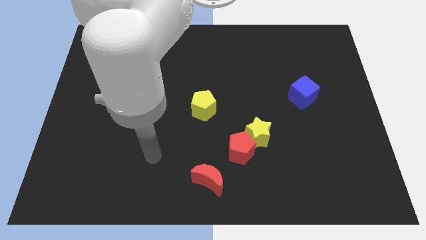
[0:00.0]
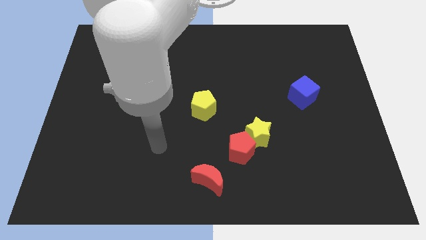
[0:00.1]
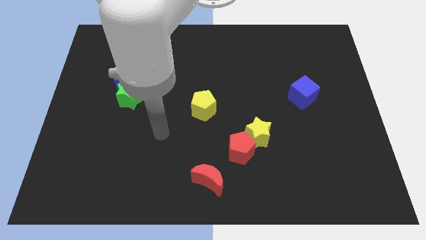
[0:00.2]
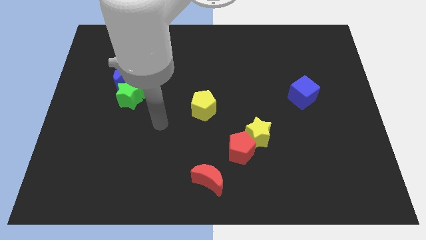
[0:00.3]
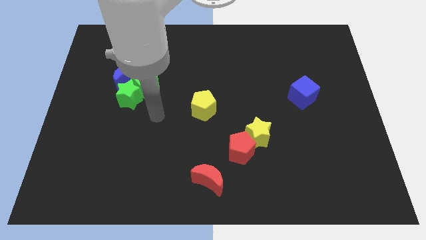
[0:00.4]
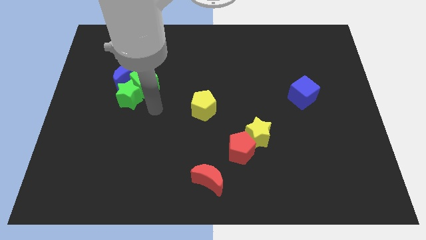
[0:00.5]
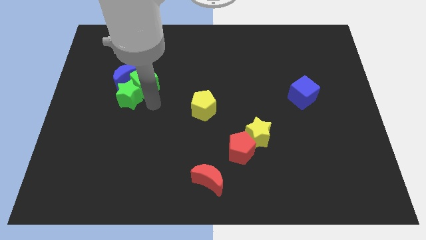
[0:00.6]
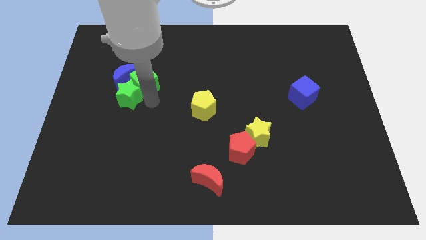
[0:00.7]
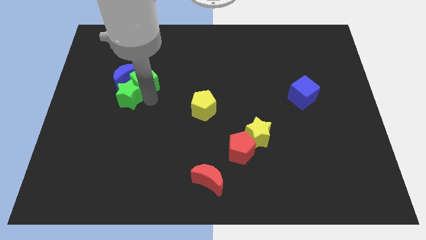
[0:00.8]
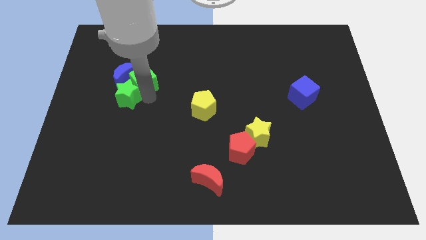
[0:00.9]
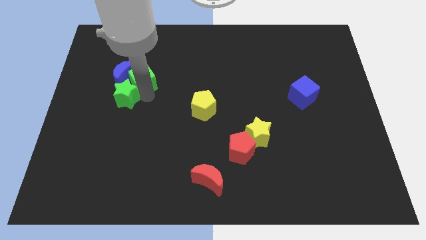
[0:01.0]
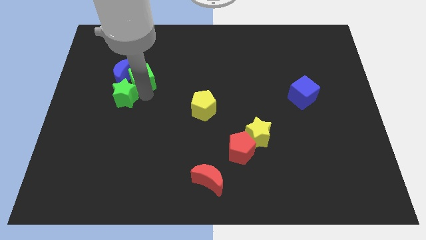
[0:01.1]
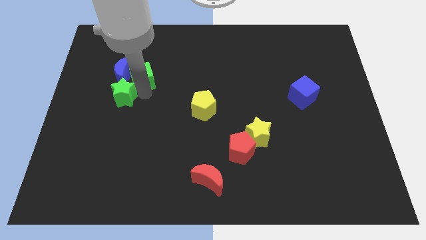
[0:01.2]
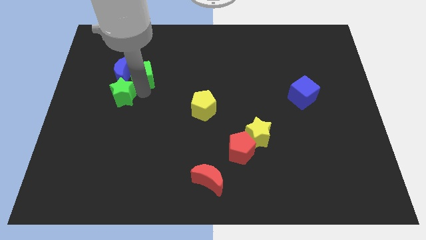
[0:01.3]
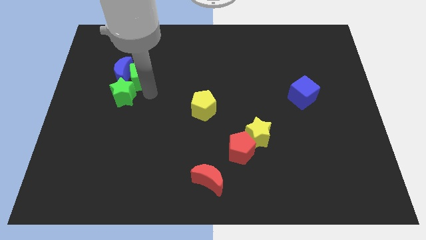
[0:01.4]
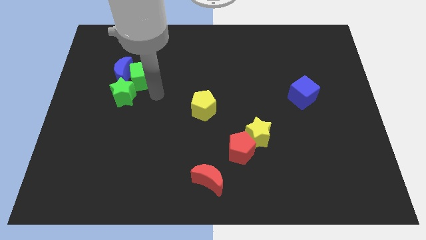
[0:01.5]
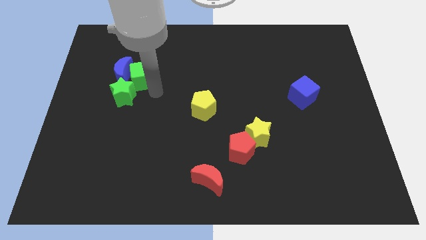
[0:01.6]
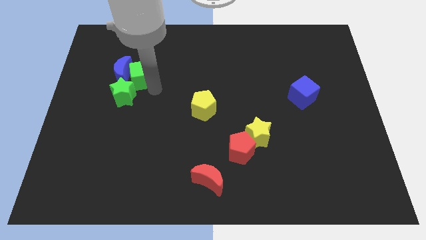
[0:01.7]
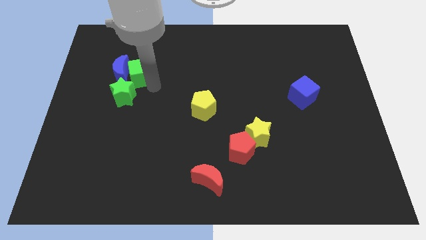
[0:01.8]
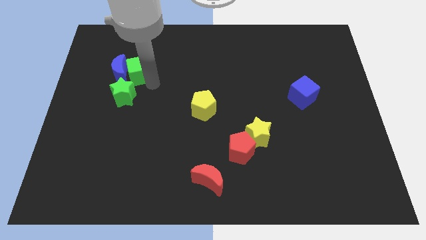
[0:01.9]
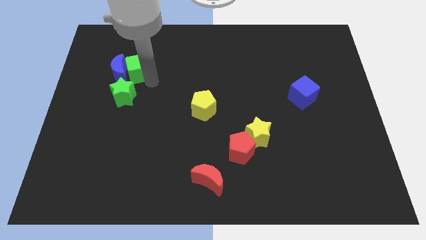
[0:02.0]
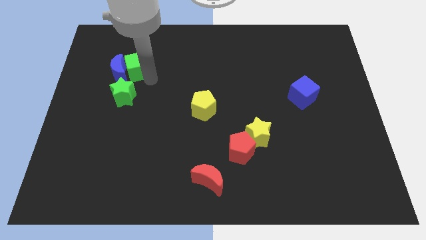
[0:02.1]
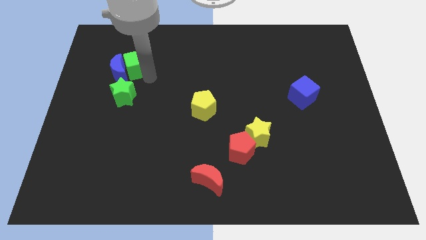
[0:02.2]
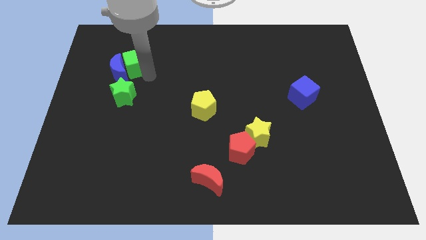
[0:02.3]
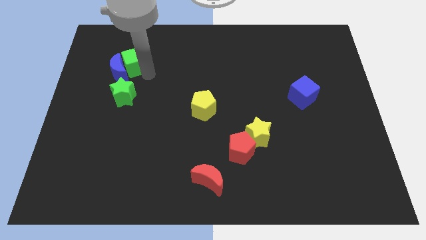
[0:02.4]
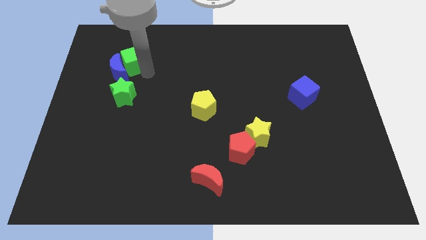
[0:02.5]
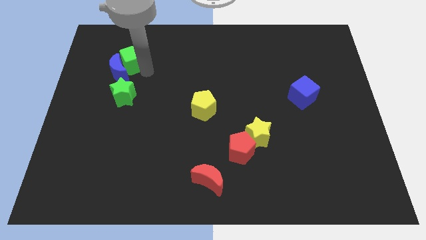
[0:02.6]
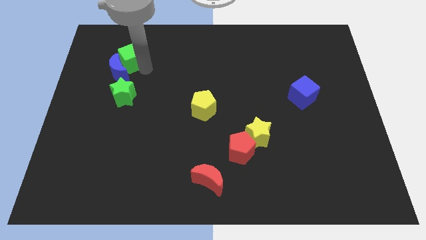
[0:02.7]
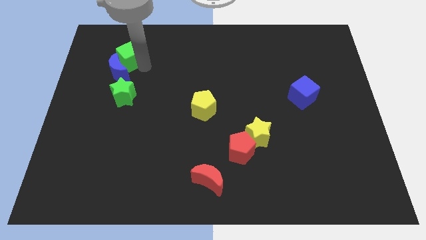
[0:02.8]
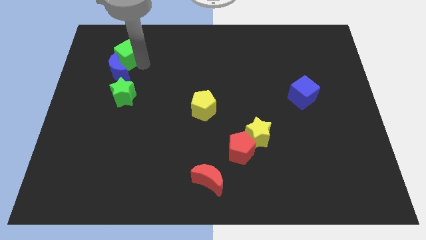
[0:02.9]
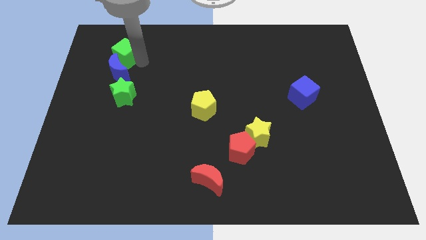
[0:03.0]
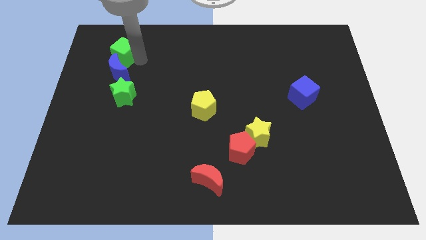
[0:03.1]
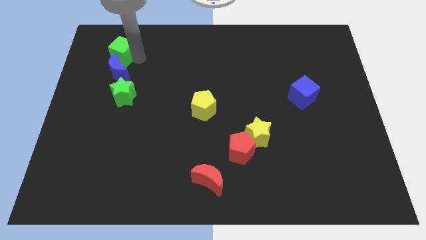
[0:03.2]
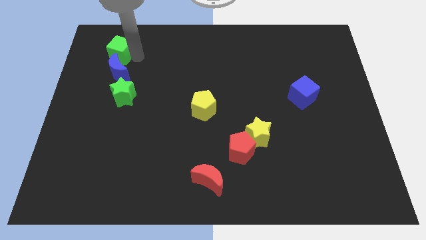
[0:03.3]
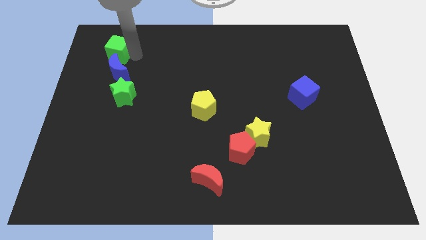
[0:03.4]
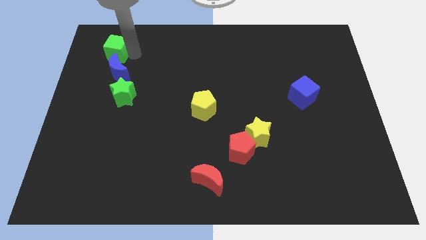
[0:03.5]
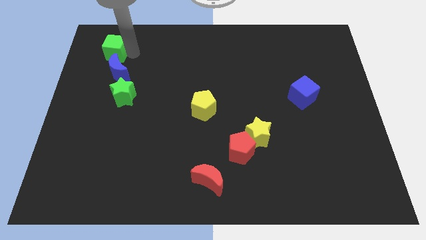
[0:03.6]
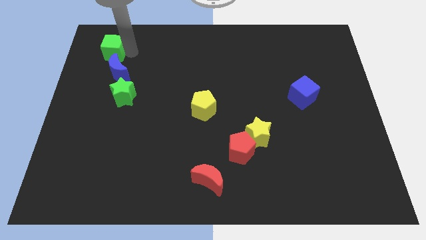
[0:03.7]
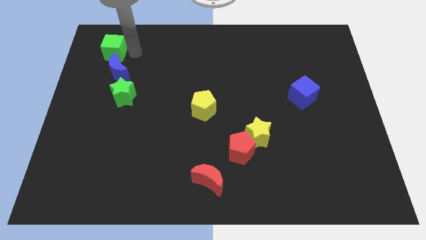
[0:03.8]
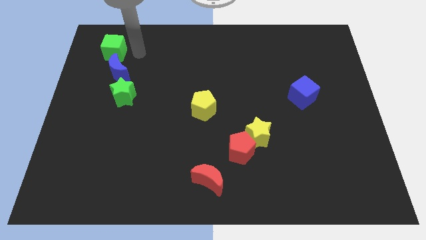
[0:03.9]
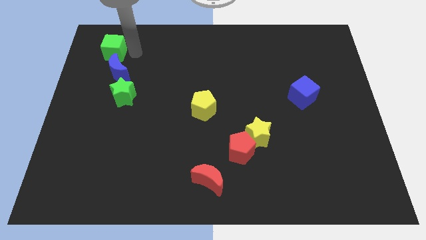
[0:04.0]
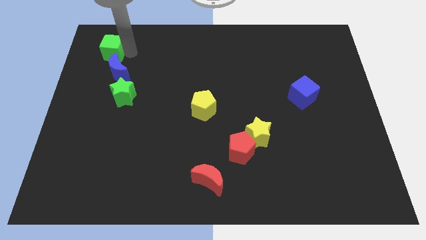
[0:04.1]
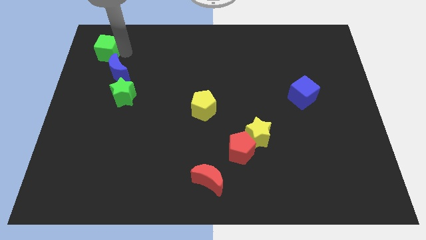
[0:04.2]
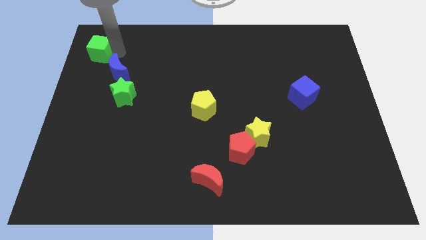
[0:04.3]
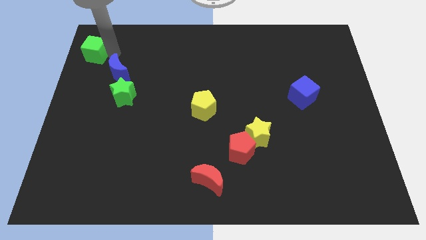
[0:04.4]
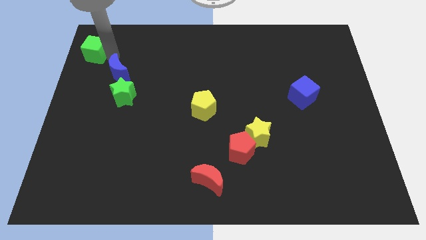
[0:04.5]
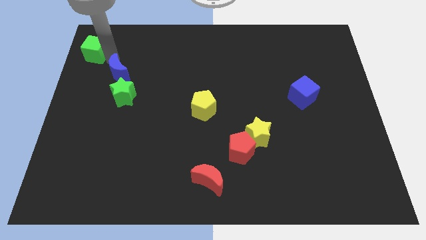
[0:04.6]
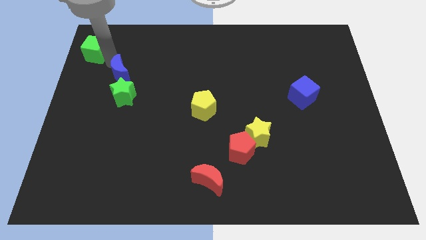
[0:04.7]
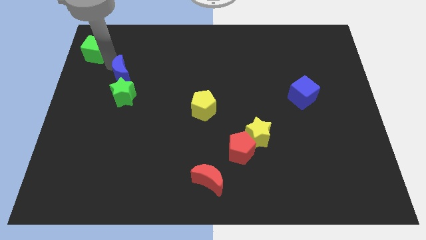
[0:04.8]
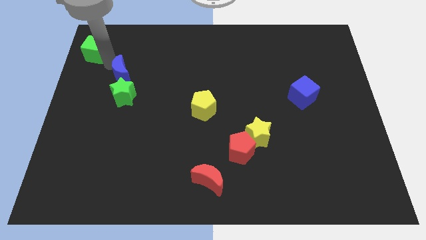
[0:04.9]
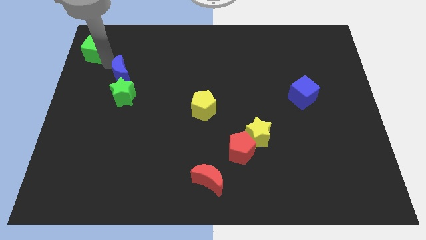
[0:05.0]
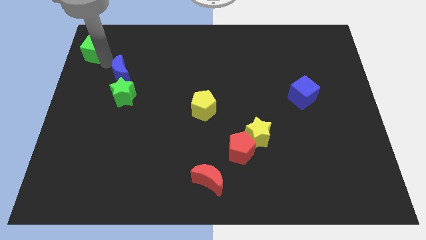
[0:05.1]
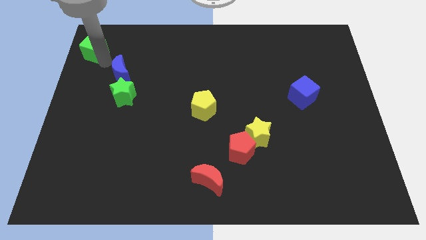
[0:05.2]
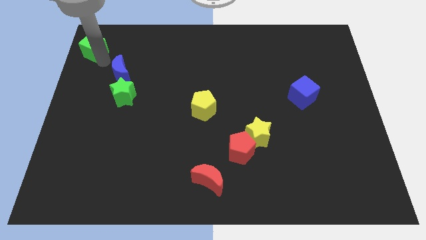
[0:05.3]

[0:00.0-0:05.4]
push the green cube to the upper left corner

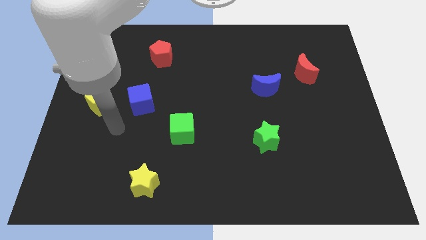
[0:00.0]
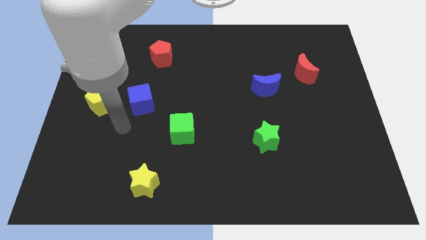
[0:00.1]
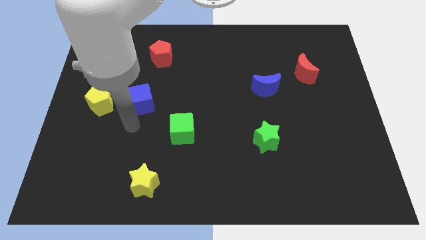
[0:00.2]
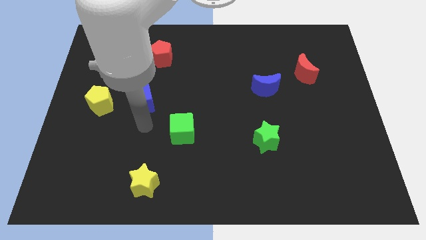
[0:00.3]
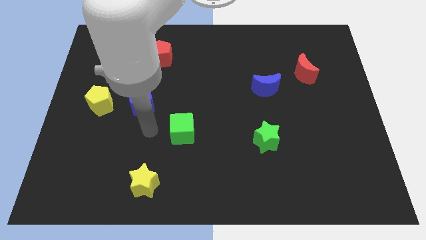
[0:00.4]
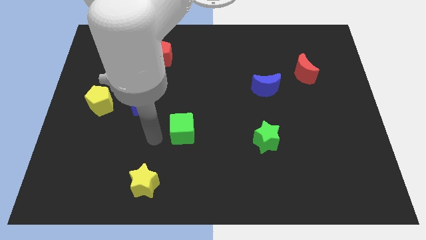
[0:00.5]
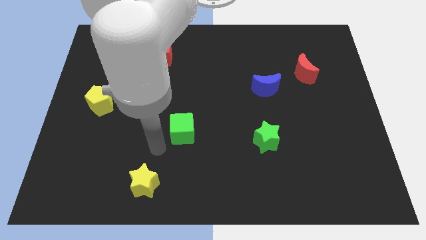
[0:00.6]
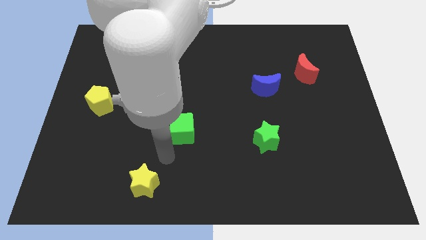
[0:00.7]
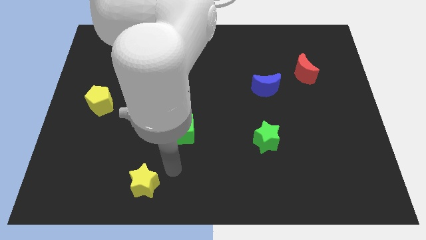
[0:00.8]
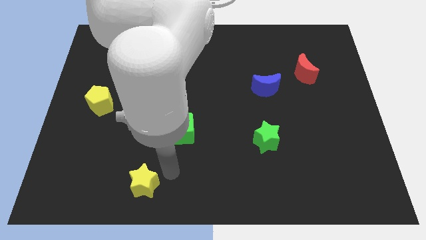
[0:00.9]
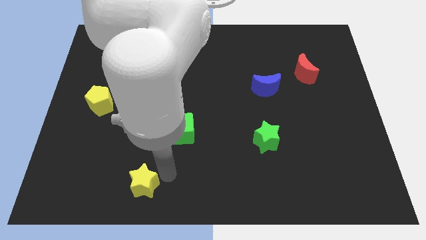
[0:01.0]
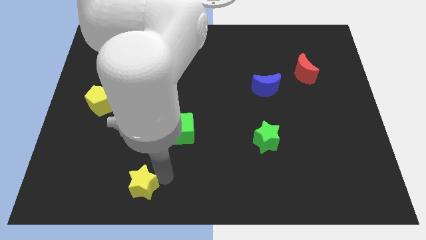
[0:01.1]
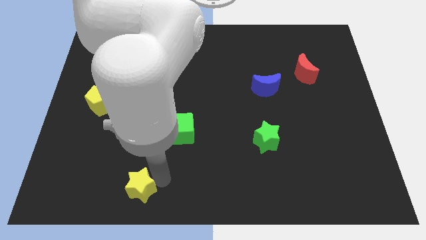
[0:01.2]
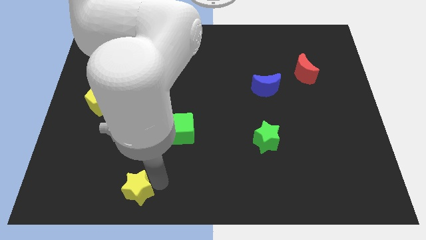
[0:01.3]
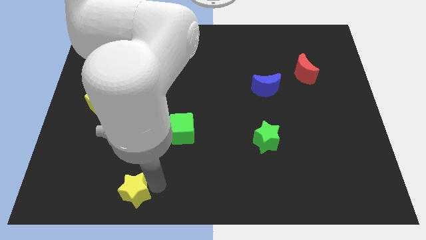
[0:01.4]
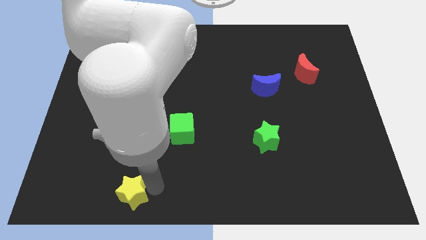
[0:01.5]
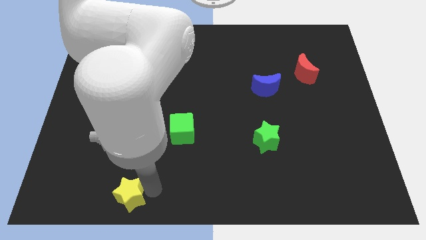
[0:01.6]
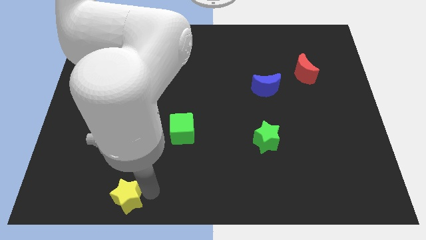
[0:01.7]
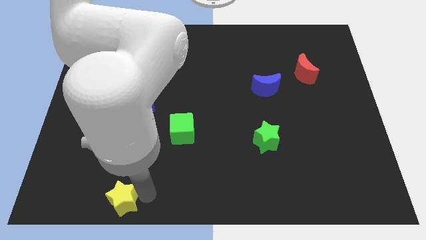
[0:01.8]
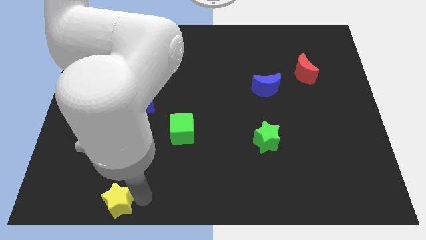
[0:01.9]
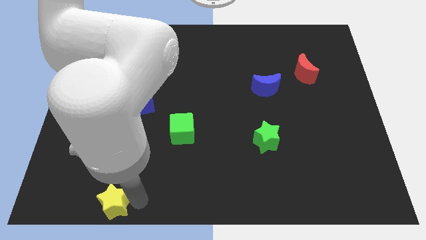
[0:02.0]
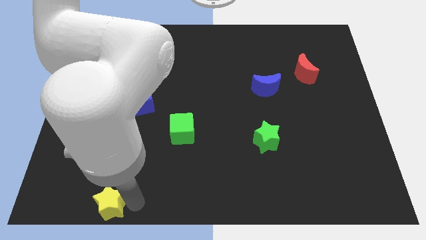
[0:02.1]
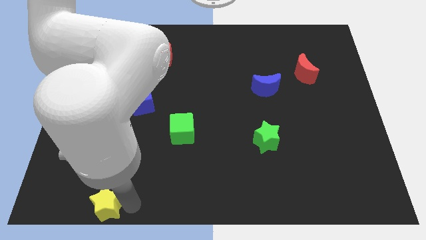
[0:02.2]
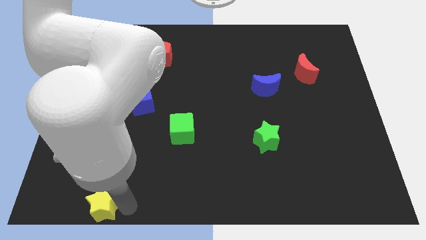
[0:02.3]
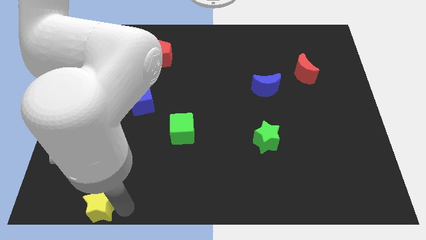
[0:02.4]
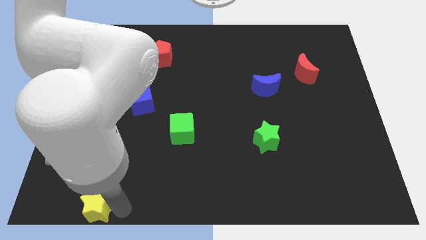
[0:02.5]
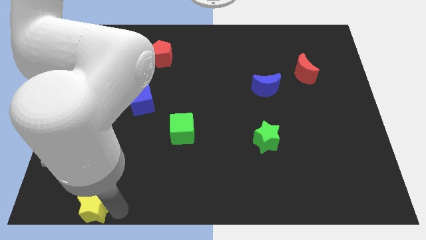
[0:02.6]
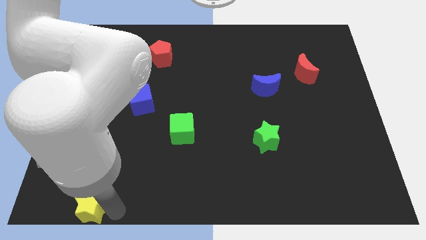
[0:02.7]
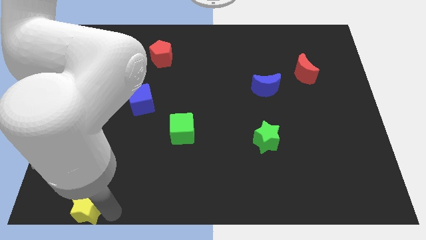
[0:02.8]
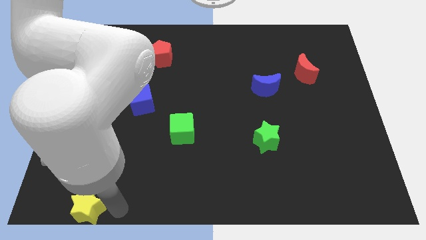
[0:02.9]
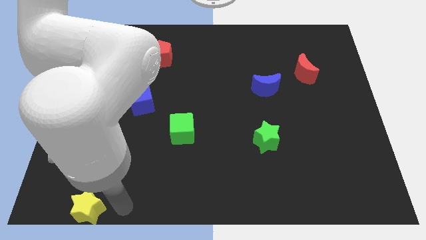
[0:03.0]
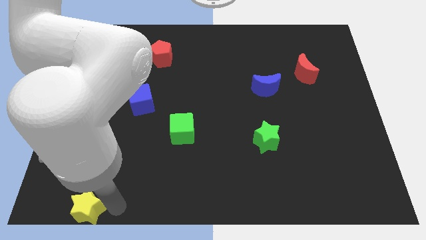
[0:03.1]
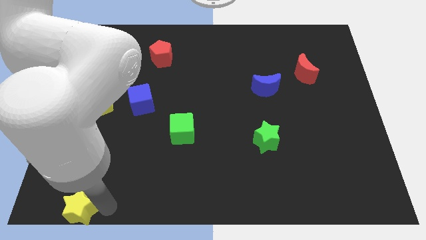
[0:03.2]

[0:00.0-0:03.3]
slide the yellow star to the bottom left corner
